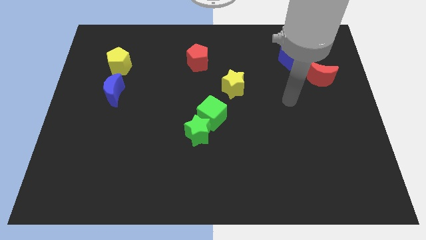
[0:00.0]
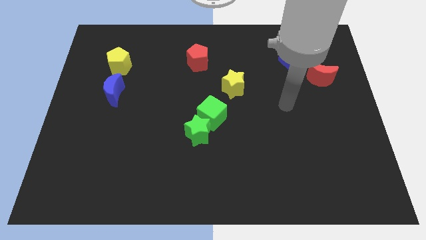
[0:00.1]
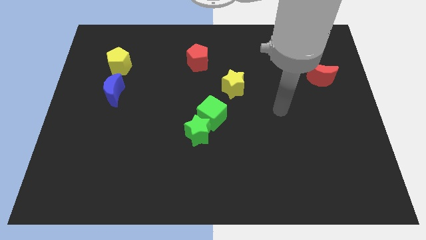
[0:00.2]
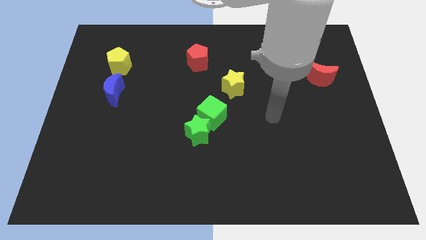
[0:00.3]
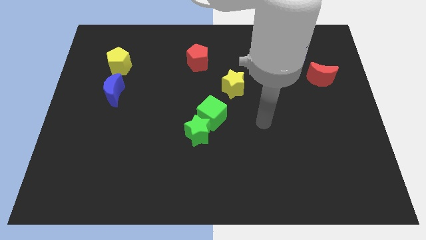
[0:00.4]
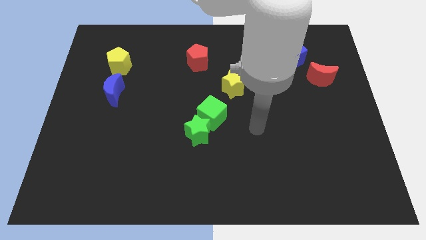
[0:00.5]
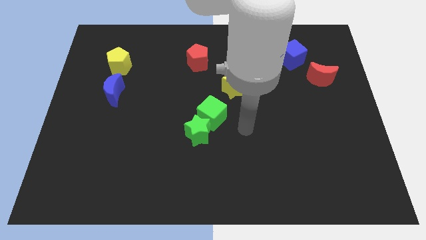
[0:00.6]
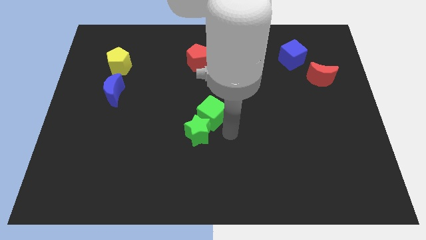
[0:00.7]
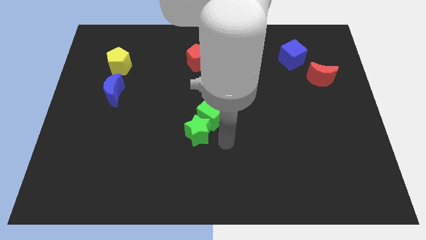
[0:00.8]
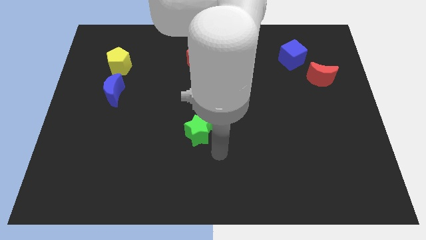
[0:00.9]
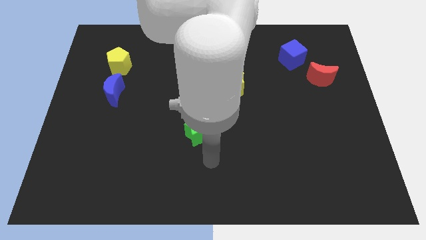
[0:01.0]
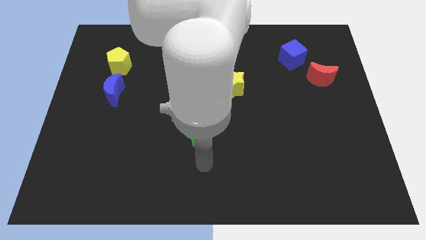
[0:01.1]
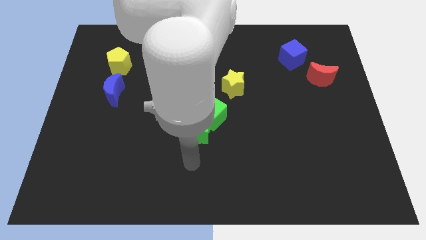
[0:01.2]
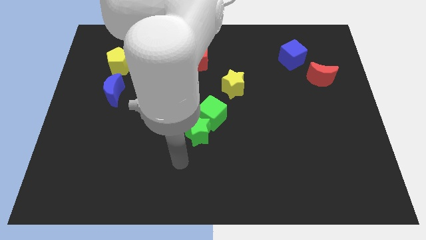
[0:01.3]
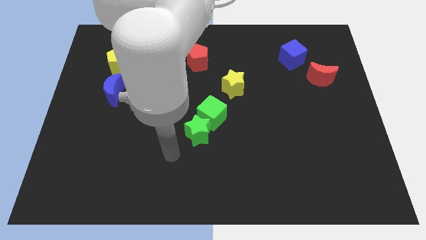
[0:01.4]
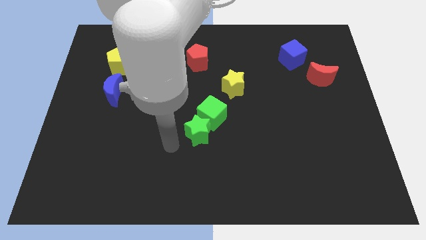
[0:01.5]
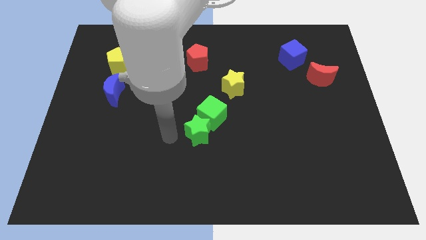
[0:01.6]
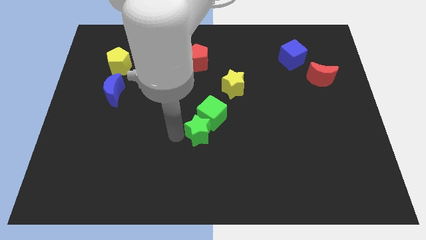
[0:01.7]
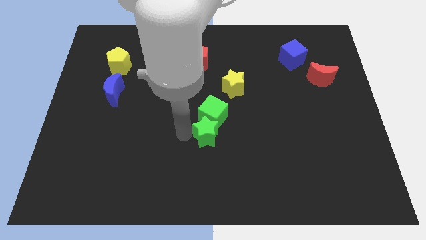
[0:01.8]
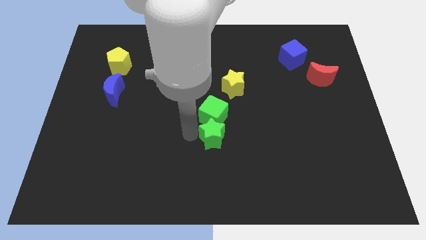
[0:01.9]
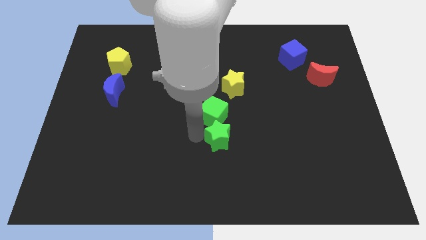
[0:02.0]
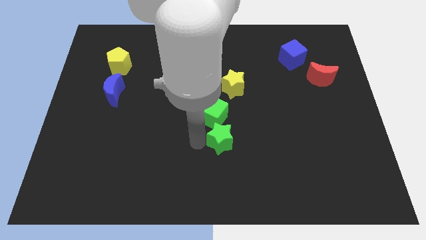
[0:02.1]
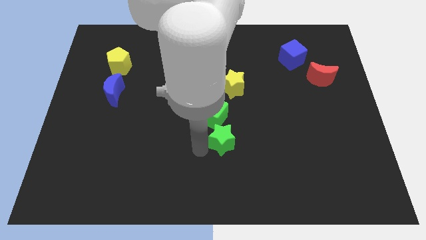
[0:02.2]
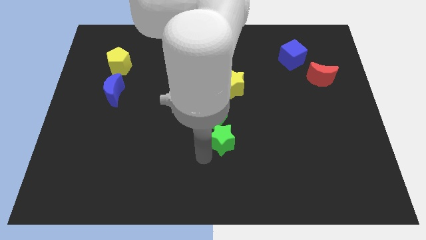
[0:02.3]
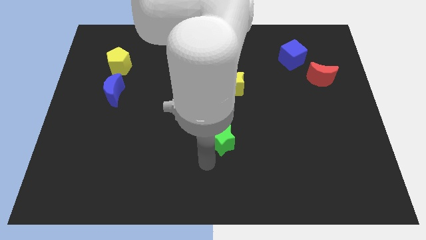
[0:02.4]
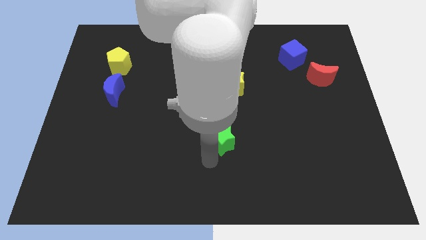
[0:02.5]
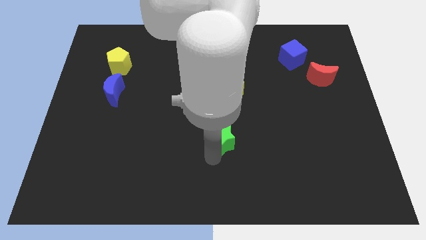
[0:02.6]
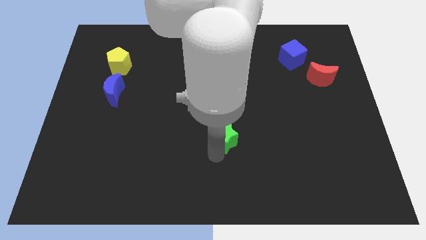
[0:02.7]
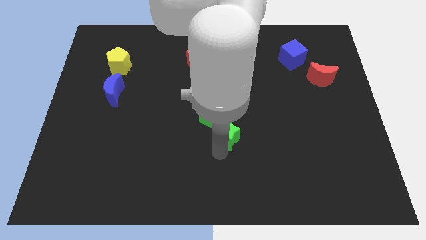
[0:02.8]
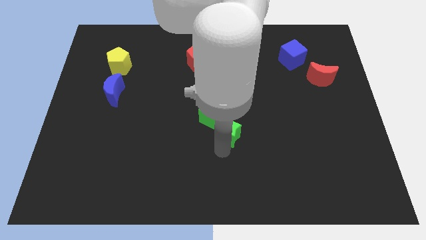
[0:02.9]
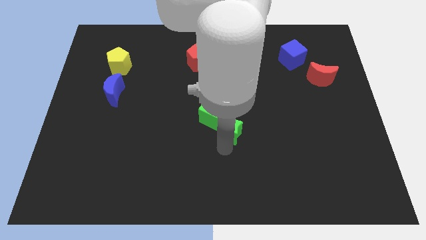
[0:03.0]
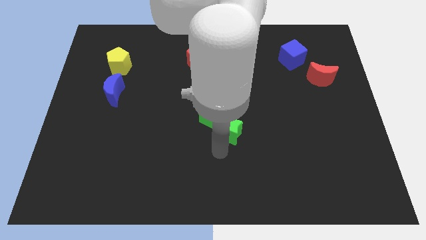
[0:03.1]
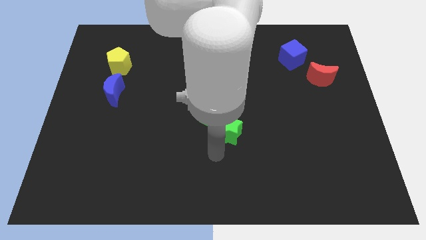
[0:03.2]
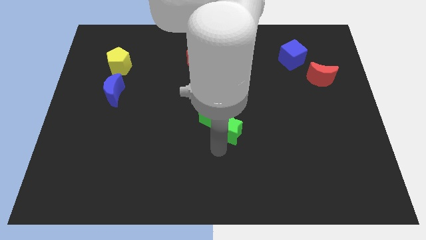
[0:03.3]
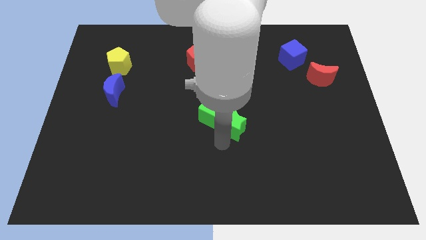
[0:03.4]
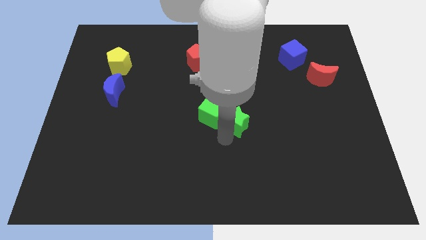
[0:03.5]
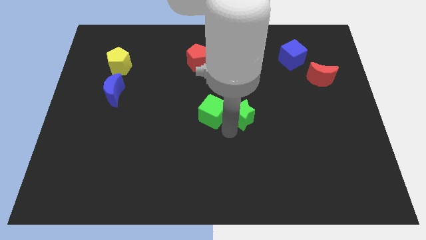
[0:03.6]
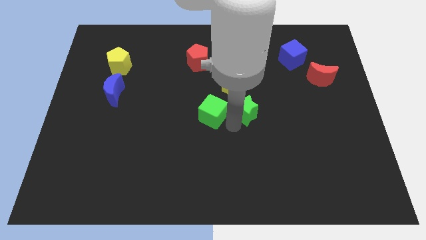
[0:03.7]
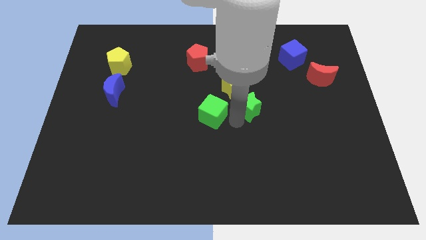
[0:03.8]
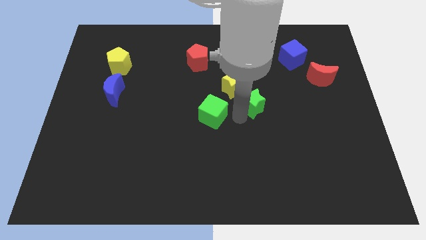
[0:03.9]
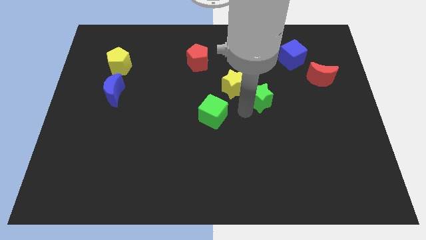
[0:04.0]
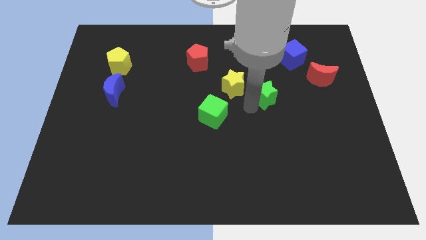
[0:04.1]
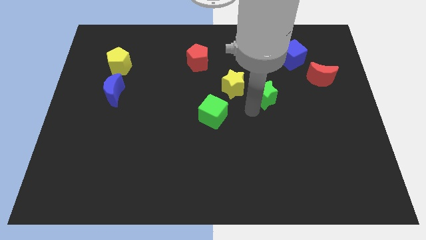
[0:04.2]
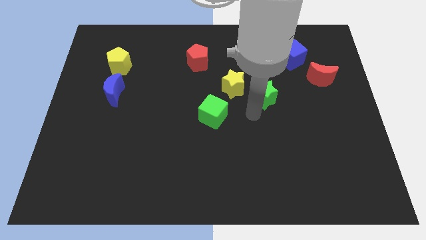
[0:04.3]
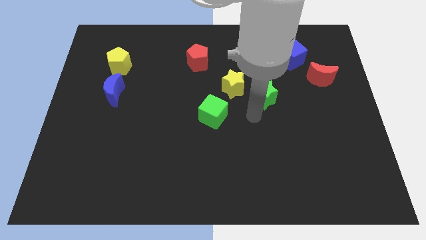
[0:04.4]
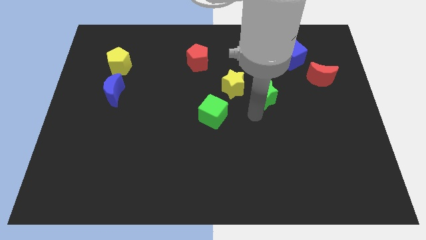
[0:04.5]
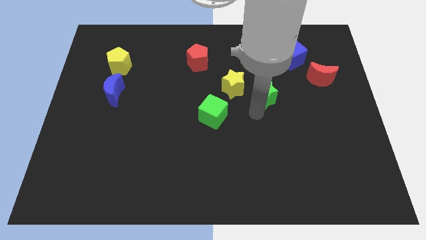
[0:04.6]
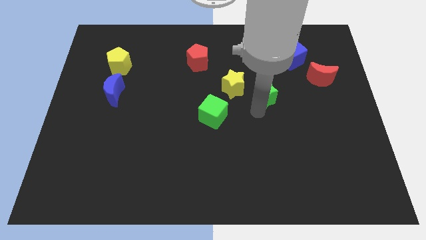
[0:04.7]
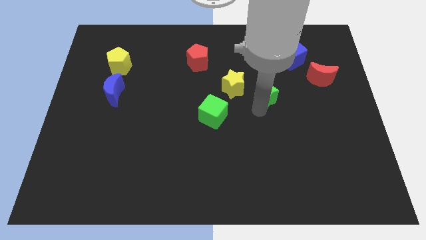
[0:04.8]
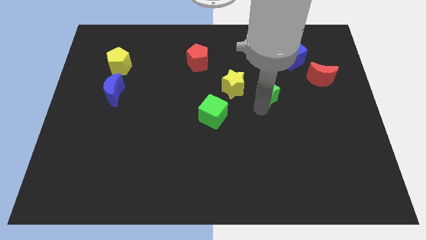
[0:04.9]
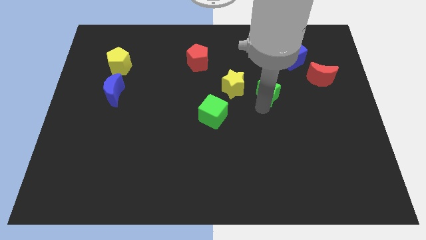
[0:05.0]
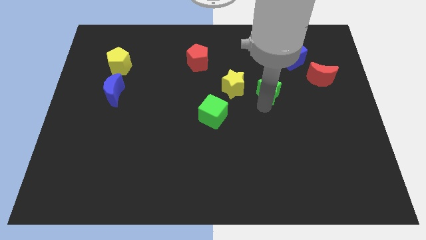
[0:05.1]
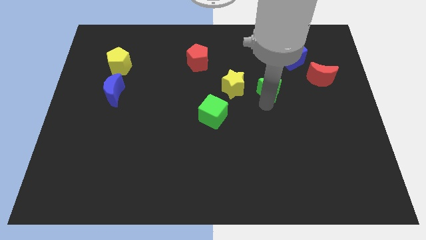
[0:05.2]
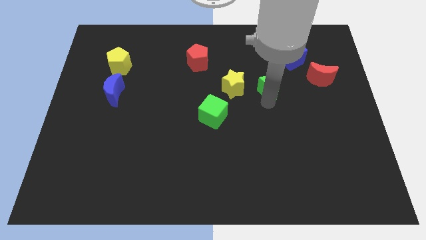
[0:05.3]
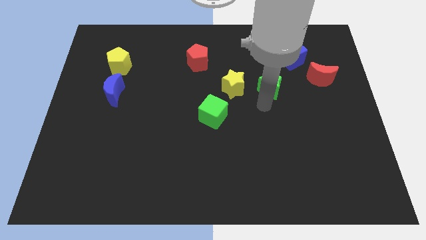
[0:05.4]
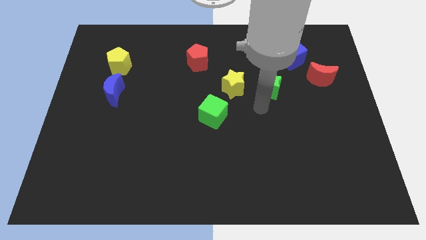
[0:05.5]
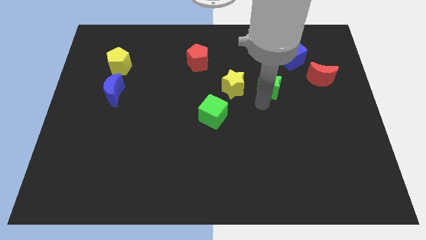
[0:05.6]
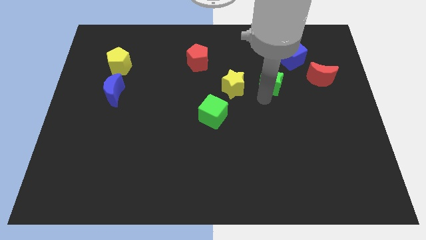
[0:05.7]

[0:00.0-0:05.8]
move the green star to the bottom left side of the blue cube

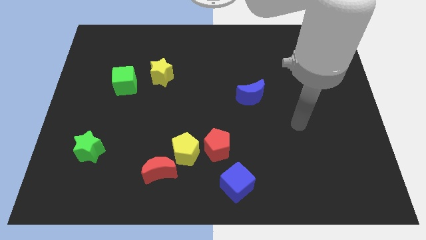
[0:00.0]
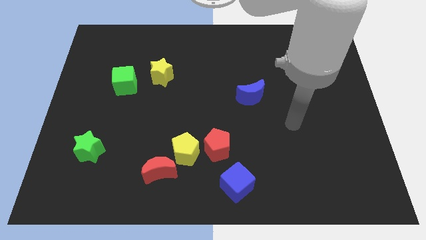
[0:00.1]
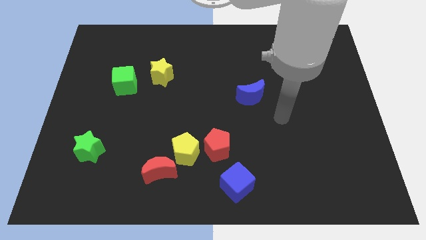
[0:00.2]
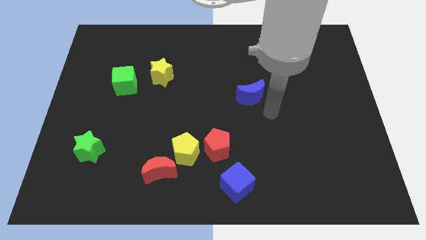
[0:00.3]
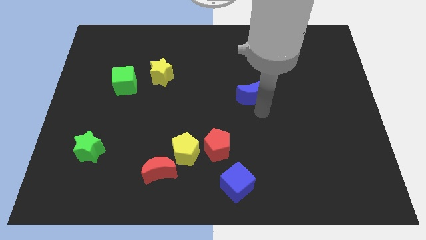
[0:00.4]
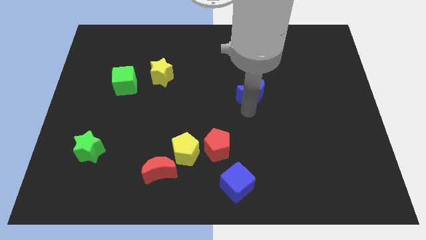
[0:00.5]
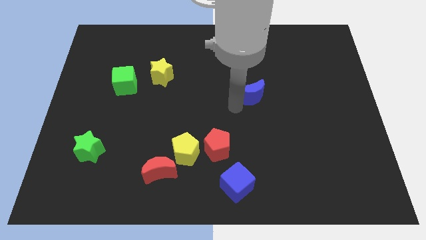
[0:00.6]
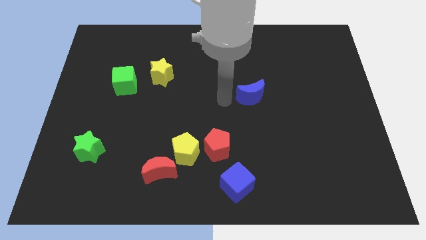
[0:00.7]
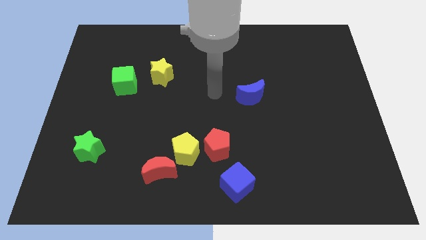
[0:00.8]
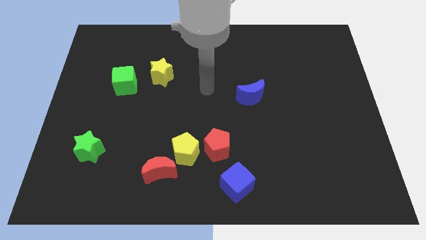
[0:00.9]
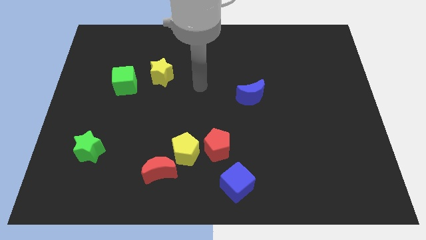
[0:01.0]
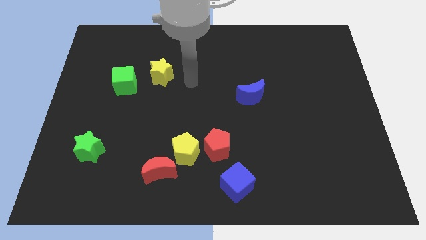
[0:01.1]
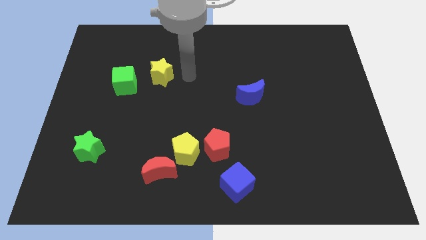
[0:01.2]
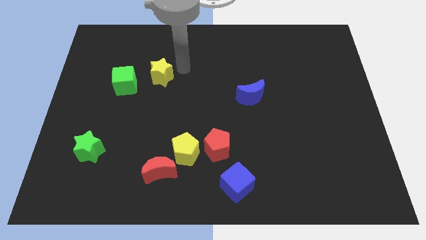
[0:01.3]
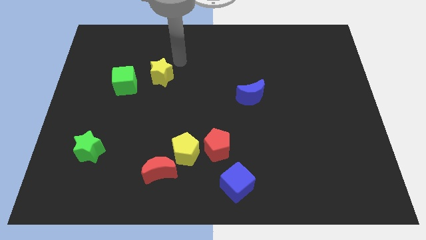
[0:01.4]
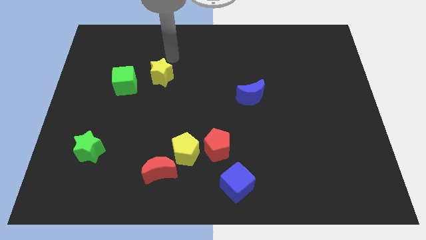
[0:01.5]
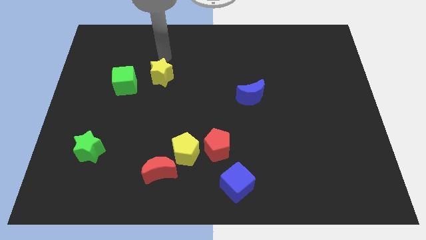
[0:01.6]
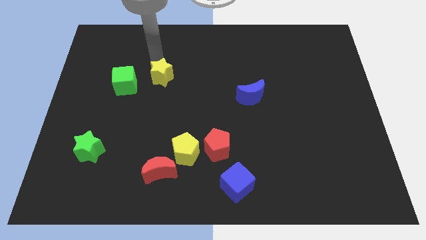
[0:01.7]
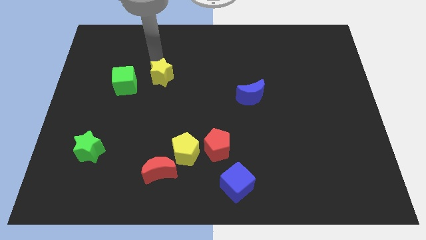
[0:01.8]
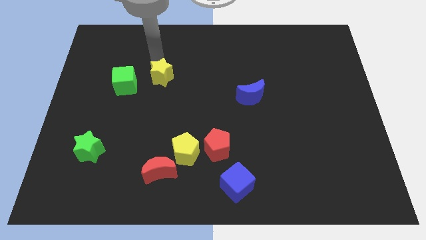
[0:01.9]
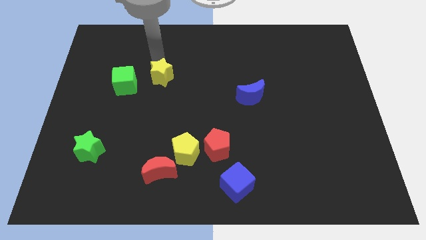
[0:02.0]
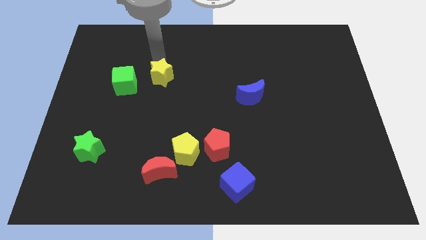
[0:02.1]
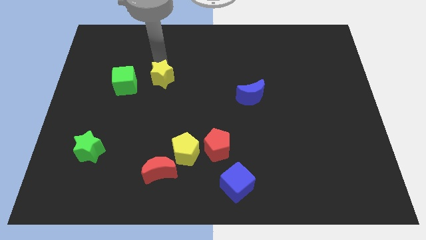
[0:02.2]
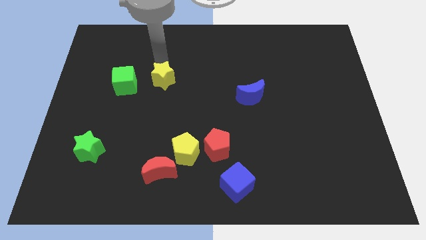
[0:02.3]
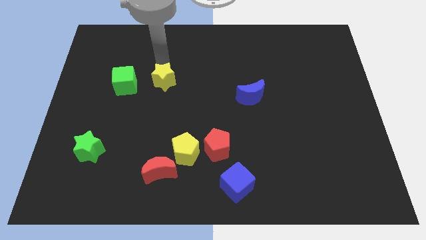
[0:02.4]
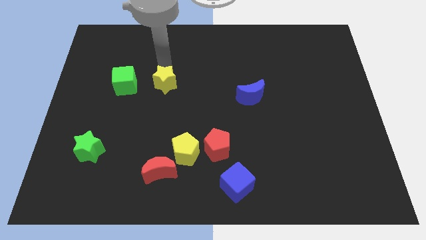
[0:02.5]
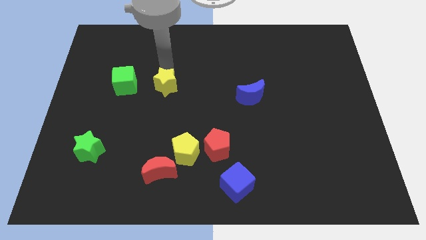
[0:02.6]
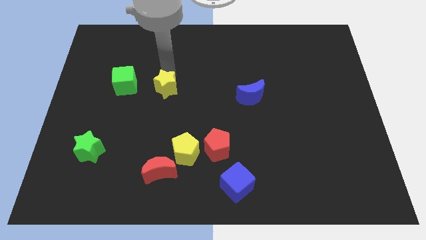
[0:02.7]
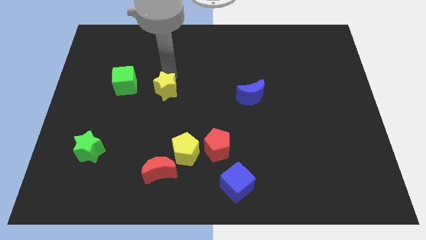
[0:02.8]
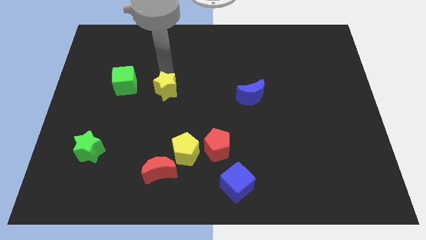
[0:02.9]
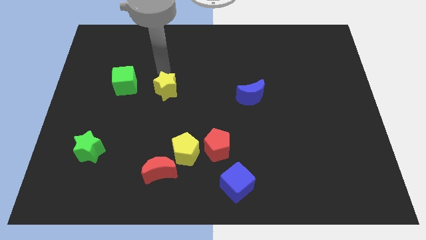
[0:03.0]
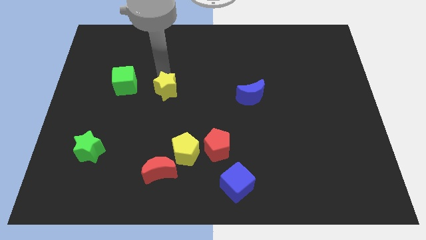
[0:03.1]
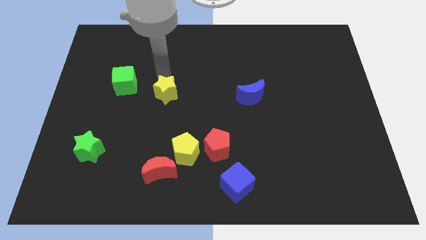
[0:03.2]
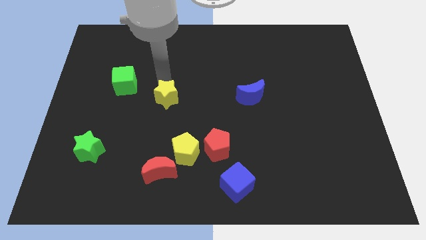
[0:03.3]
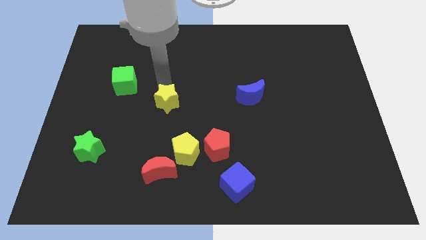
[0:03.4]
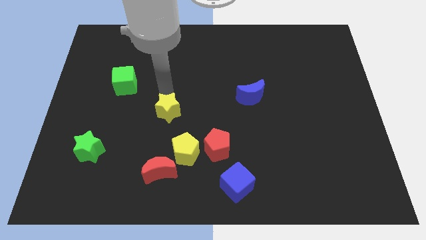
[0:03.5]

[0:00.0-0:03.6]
move the yellow star to the top of the red moon
